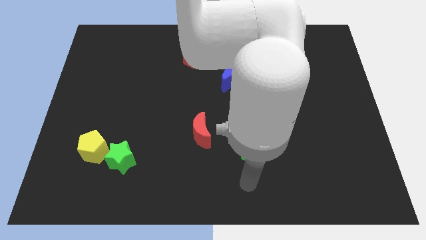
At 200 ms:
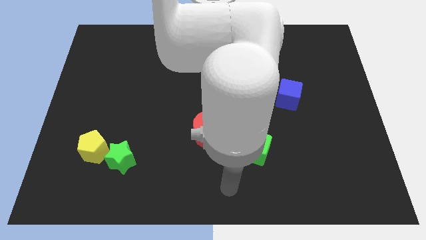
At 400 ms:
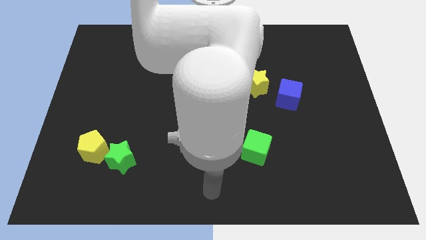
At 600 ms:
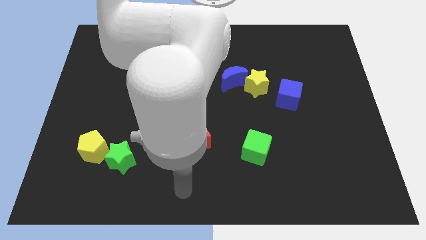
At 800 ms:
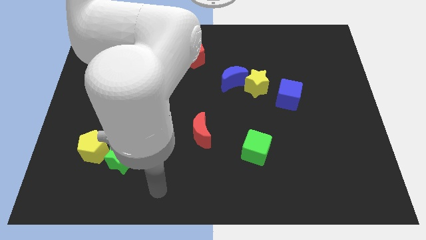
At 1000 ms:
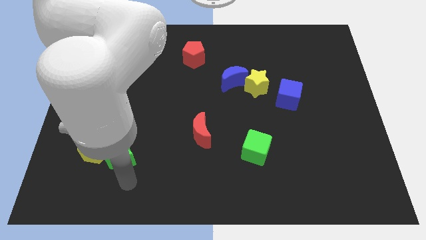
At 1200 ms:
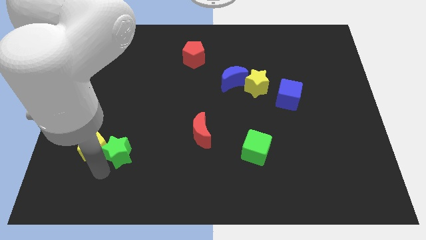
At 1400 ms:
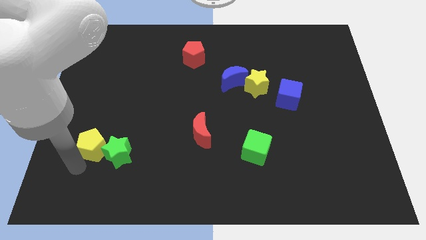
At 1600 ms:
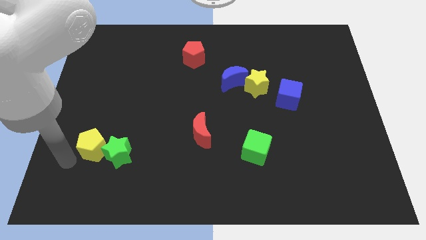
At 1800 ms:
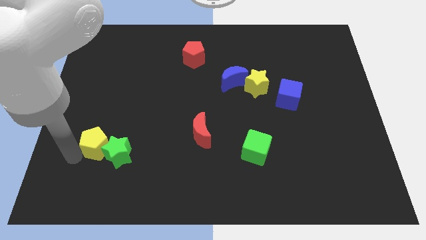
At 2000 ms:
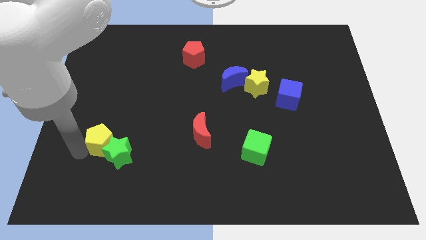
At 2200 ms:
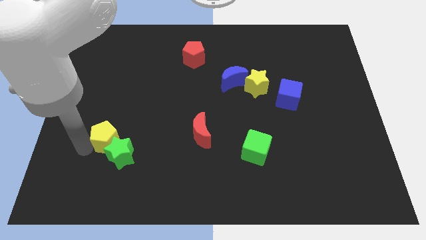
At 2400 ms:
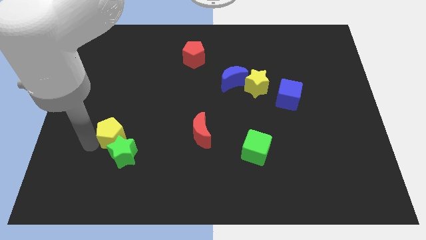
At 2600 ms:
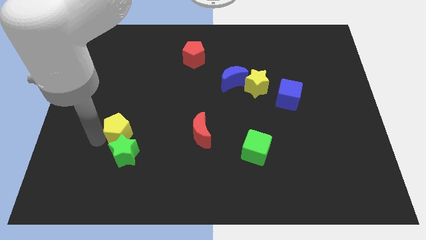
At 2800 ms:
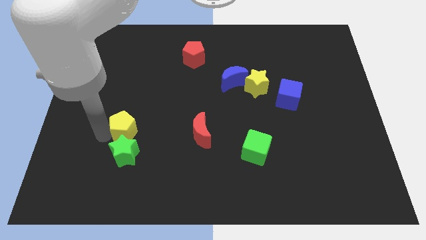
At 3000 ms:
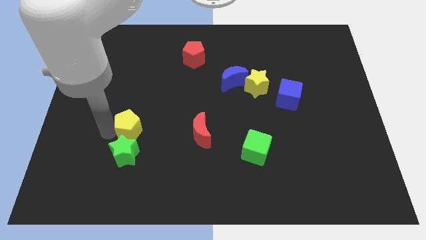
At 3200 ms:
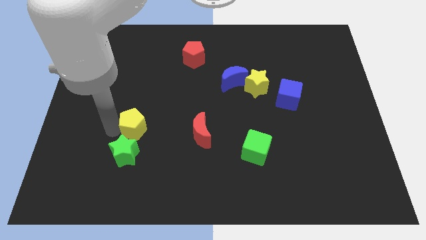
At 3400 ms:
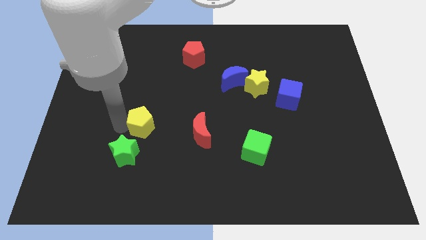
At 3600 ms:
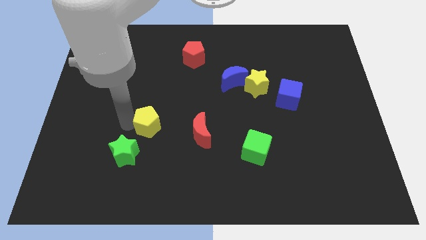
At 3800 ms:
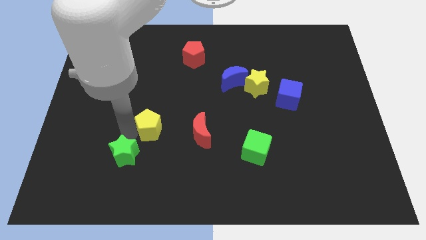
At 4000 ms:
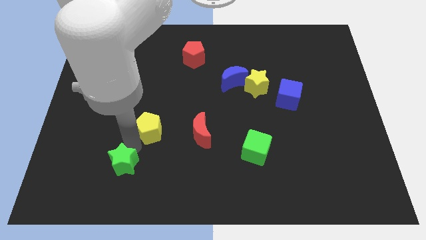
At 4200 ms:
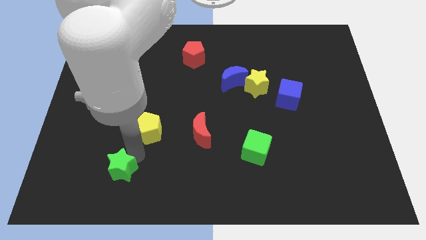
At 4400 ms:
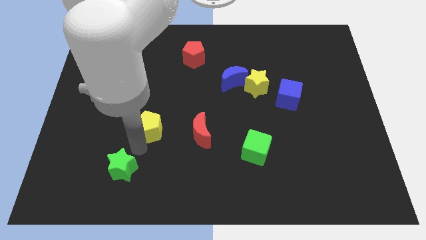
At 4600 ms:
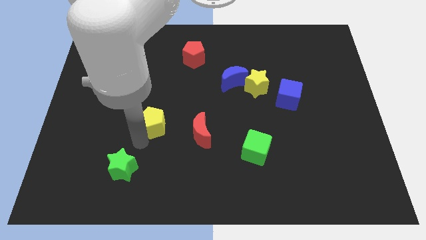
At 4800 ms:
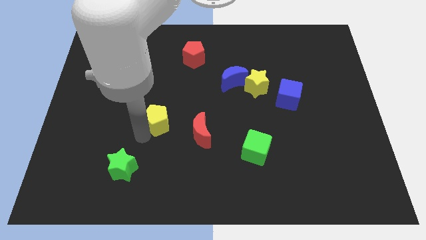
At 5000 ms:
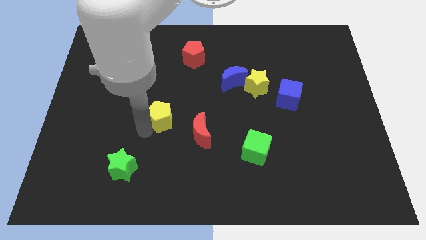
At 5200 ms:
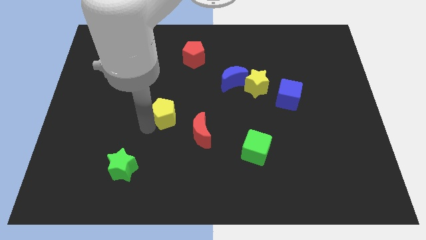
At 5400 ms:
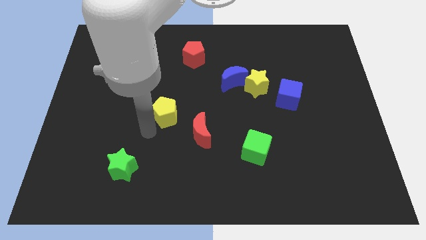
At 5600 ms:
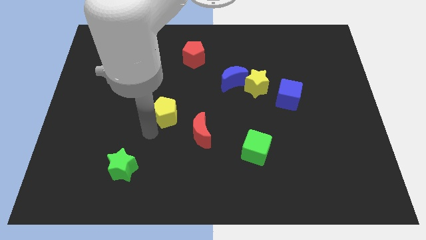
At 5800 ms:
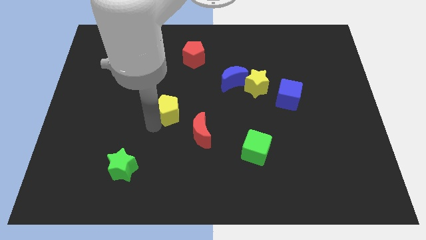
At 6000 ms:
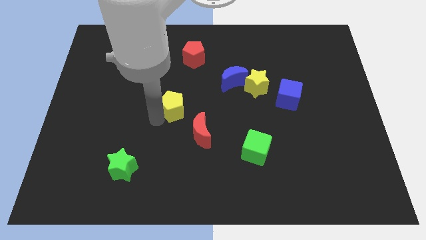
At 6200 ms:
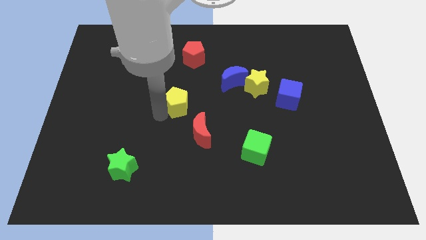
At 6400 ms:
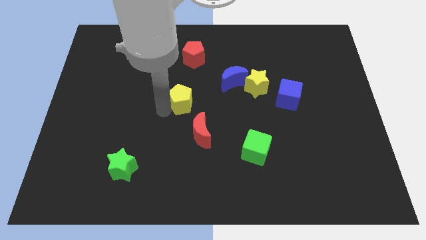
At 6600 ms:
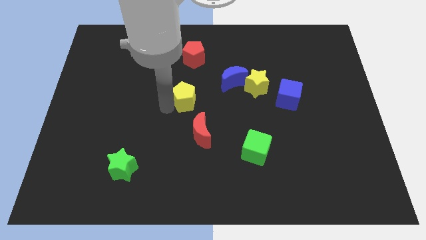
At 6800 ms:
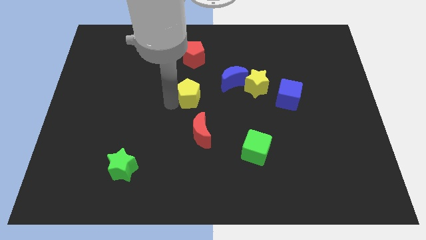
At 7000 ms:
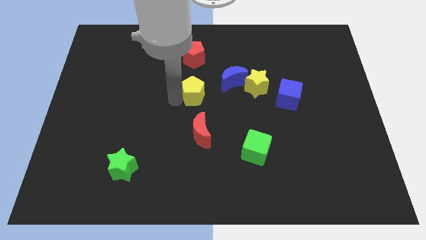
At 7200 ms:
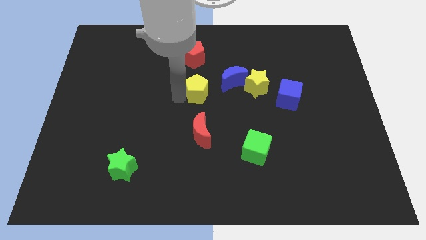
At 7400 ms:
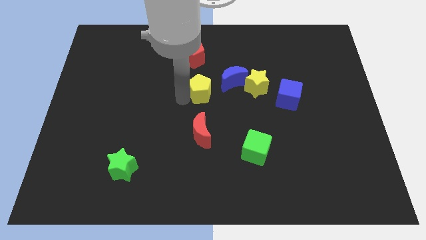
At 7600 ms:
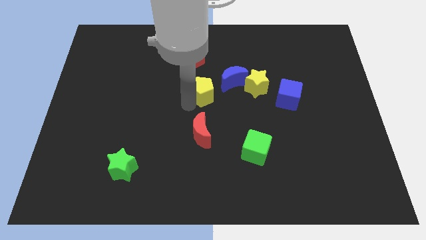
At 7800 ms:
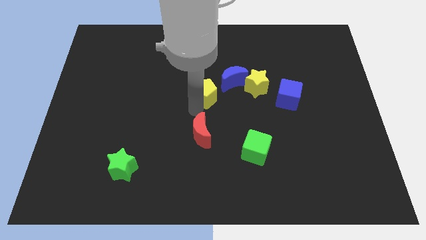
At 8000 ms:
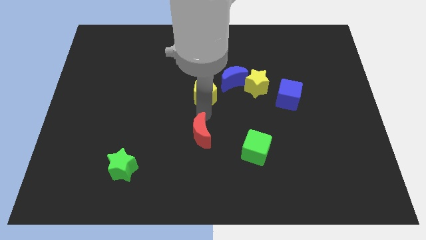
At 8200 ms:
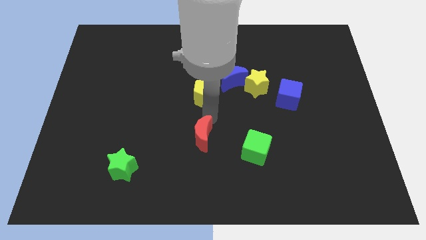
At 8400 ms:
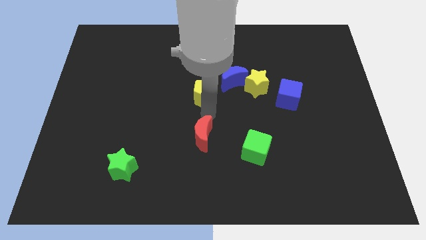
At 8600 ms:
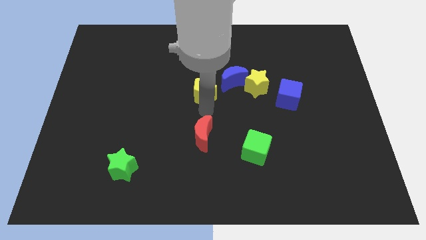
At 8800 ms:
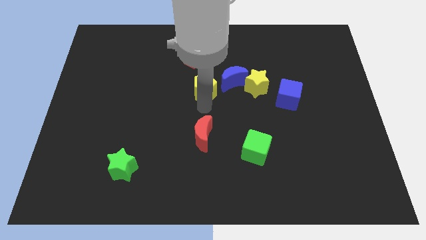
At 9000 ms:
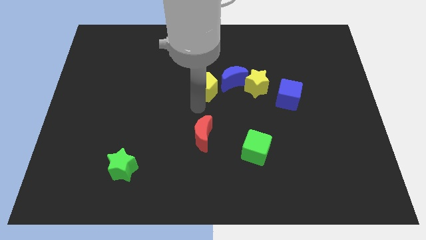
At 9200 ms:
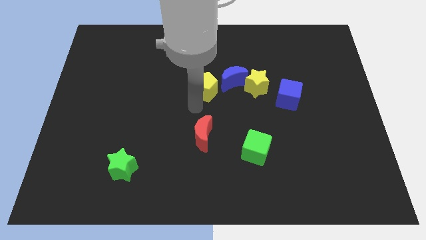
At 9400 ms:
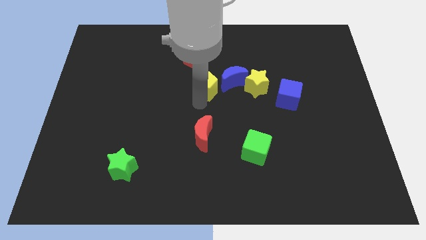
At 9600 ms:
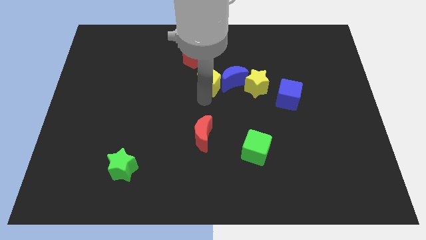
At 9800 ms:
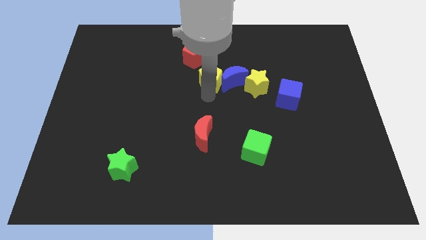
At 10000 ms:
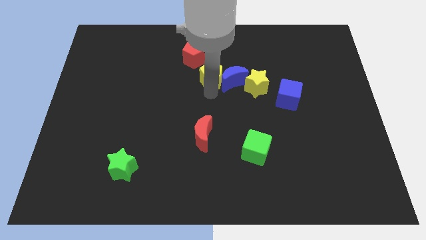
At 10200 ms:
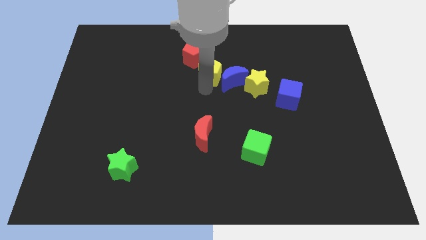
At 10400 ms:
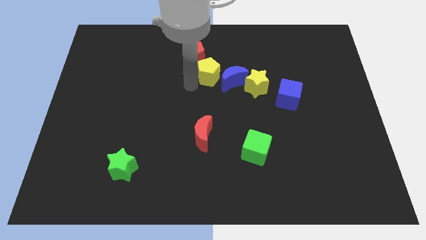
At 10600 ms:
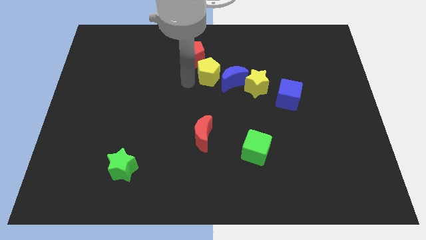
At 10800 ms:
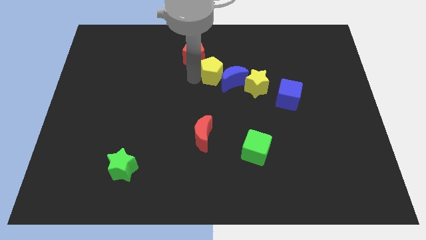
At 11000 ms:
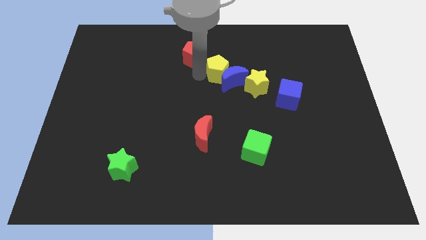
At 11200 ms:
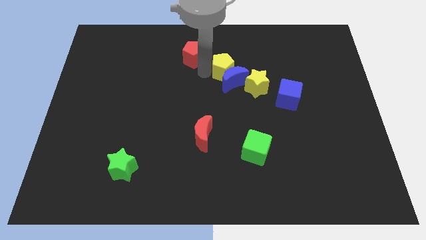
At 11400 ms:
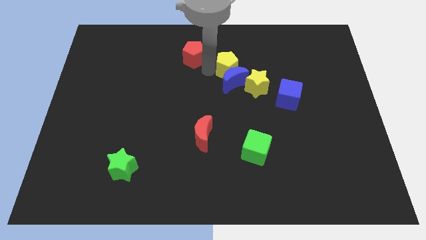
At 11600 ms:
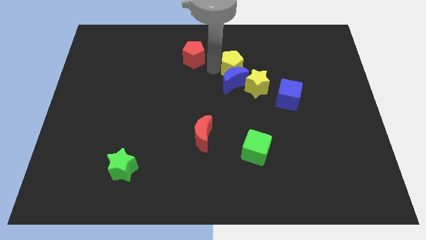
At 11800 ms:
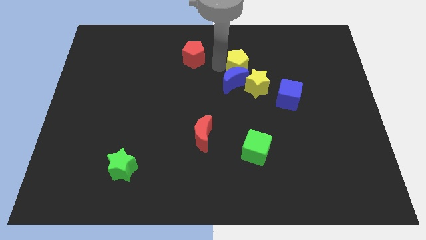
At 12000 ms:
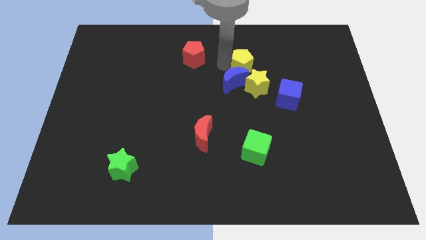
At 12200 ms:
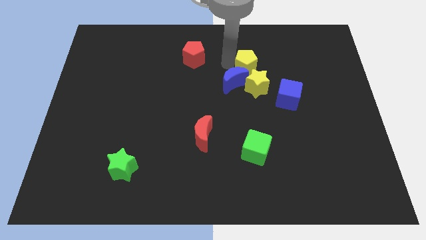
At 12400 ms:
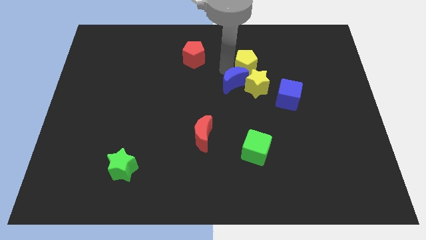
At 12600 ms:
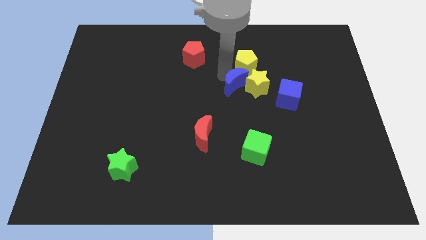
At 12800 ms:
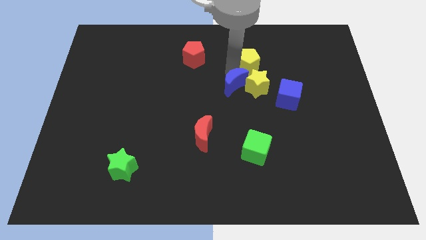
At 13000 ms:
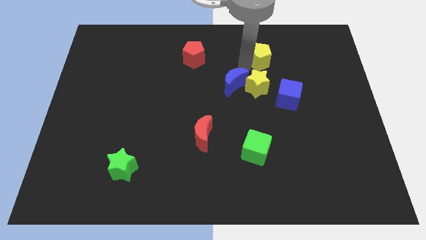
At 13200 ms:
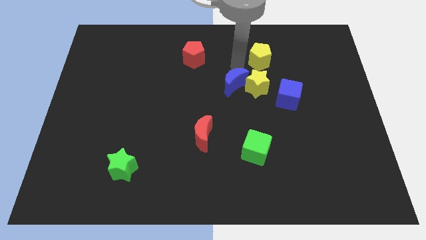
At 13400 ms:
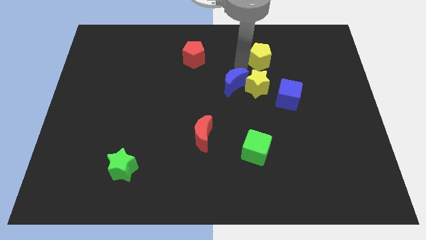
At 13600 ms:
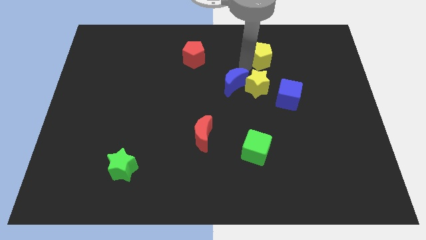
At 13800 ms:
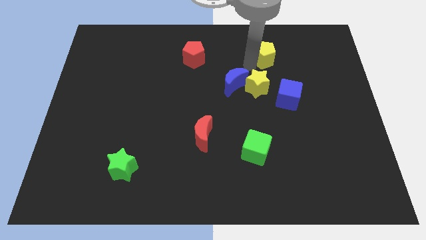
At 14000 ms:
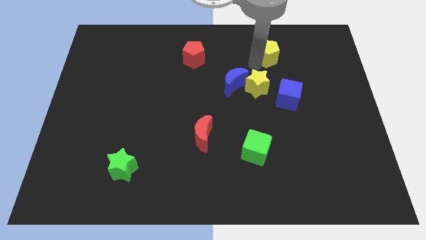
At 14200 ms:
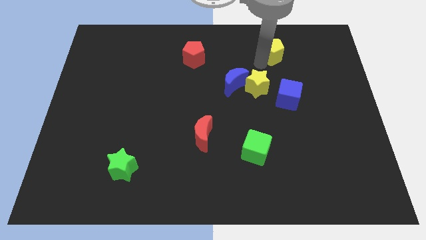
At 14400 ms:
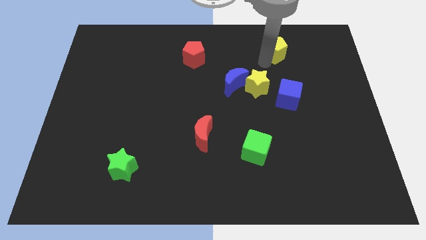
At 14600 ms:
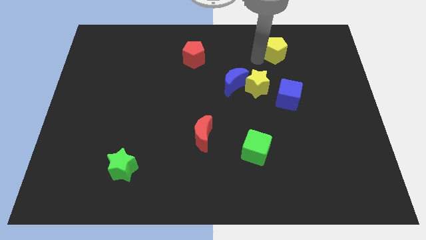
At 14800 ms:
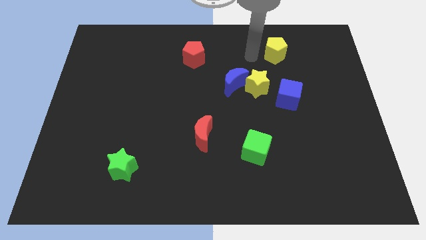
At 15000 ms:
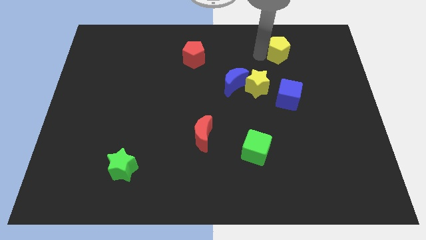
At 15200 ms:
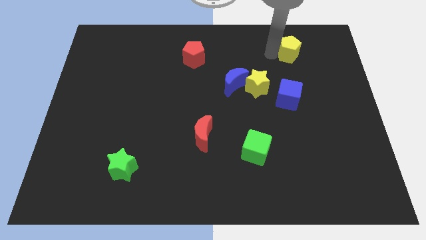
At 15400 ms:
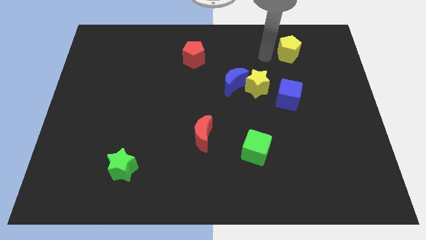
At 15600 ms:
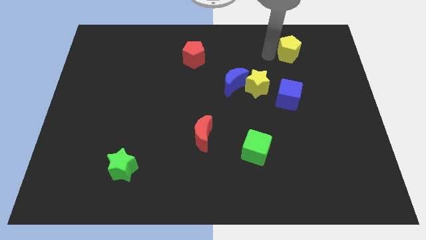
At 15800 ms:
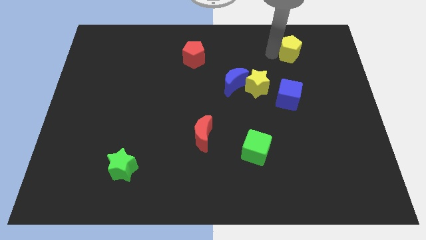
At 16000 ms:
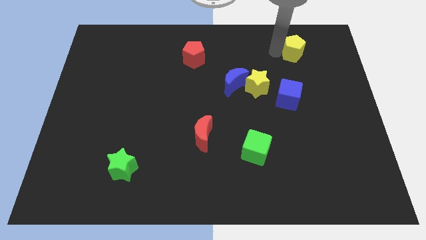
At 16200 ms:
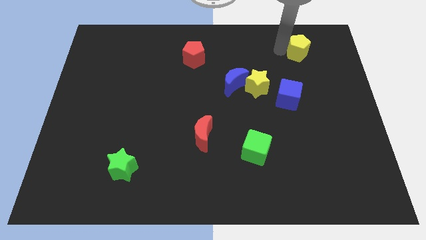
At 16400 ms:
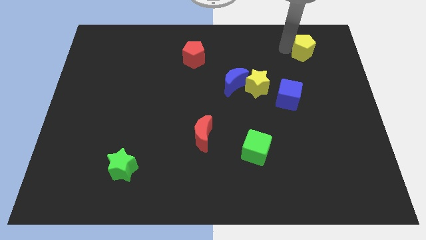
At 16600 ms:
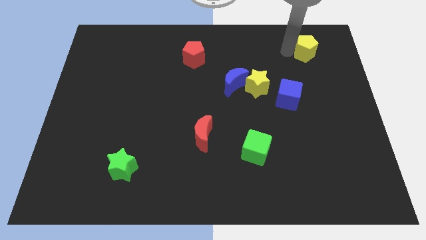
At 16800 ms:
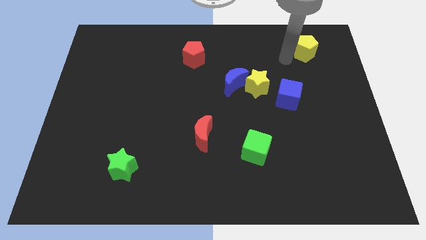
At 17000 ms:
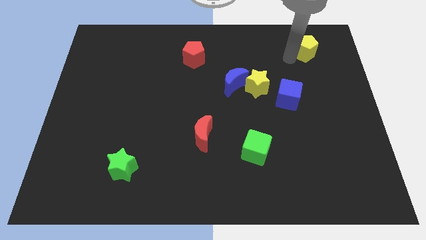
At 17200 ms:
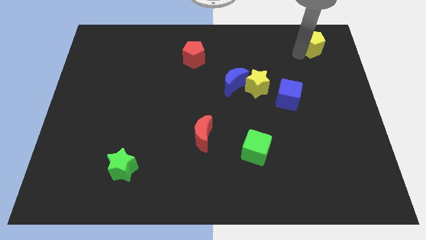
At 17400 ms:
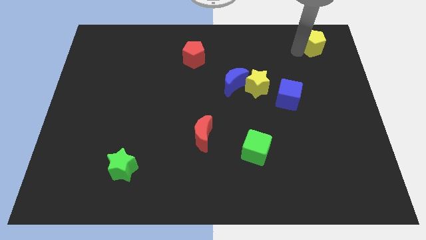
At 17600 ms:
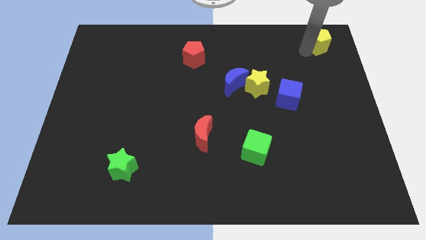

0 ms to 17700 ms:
push the yellow pentagon to the top right
